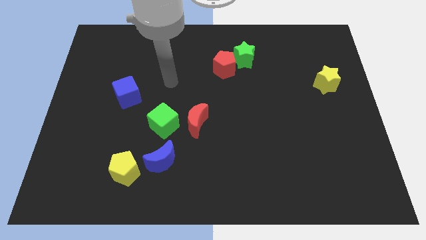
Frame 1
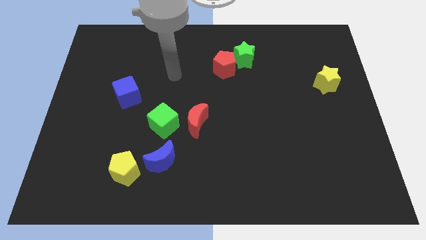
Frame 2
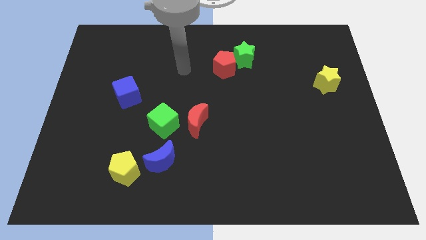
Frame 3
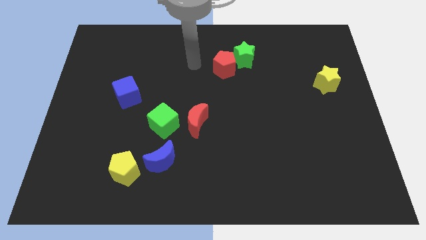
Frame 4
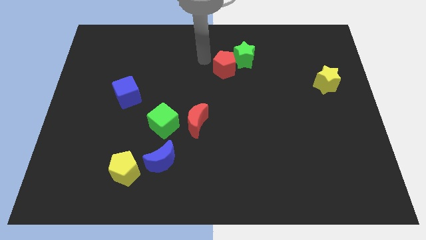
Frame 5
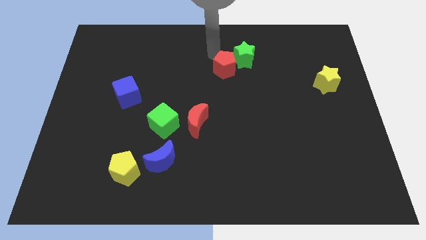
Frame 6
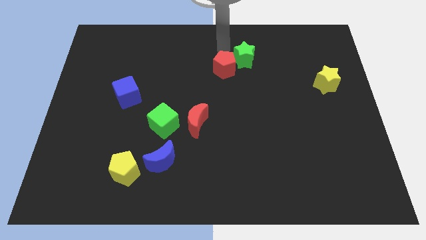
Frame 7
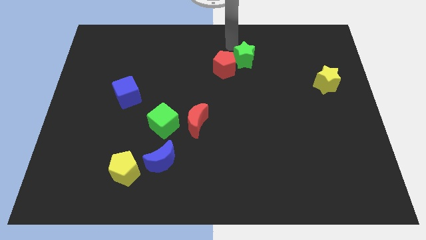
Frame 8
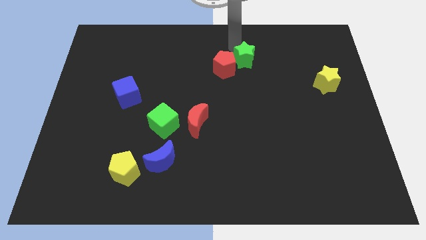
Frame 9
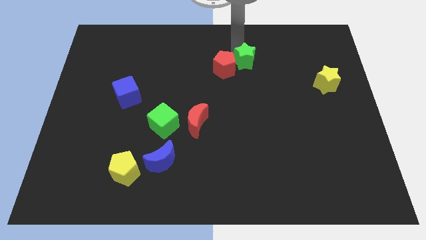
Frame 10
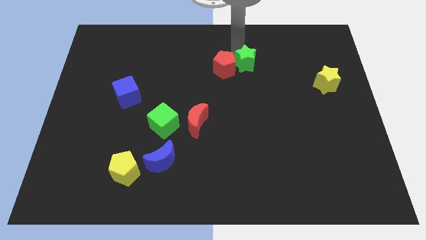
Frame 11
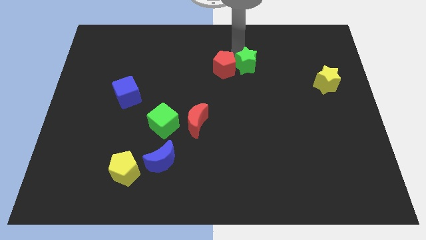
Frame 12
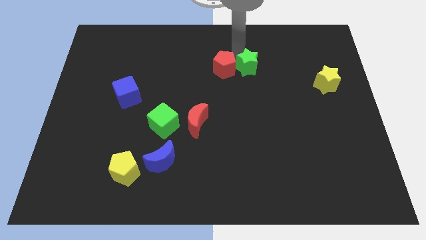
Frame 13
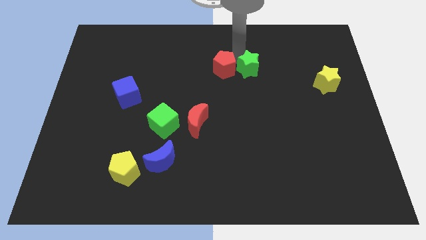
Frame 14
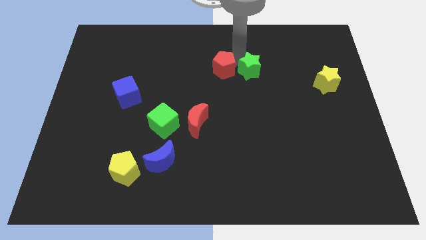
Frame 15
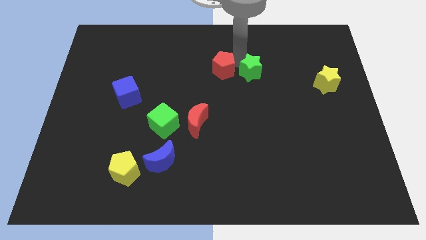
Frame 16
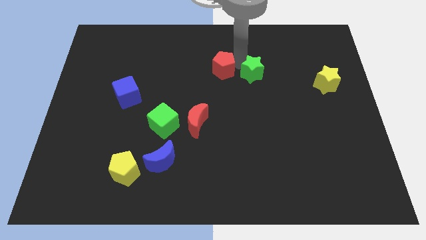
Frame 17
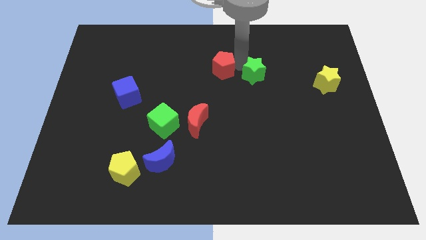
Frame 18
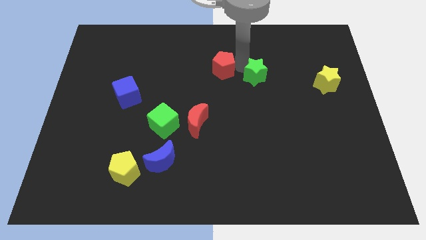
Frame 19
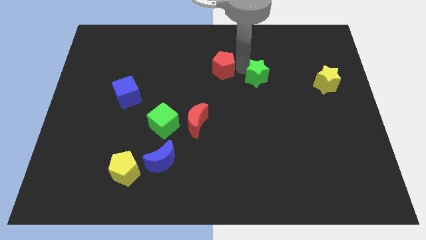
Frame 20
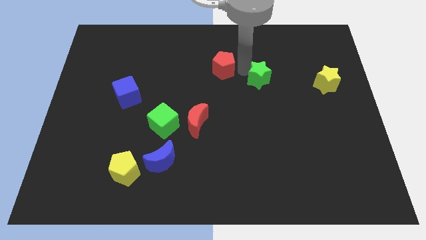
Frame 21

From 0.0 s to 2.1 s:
push the green star diagonally downwards and to the right slightly

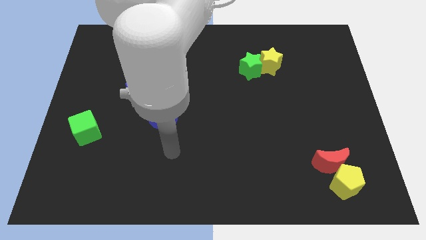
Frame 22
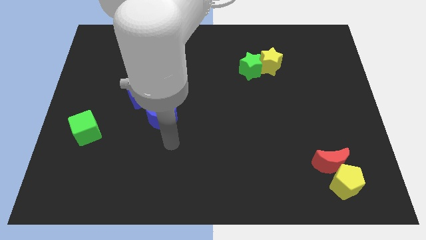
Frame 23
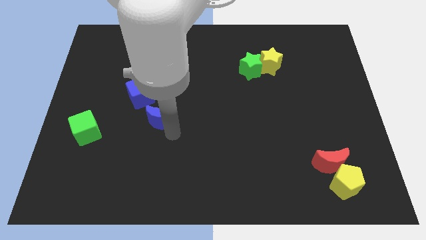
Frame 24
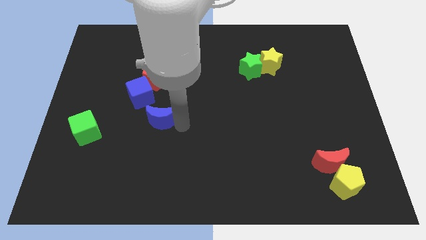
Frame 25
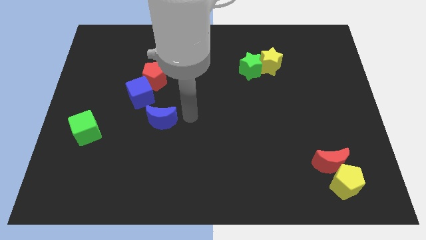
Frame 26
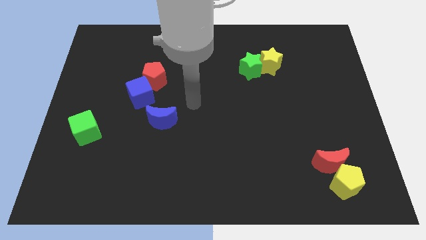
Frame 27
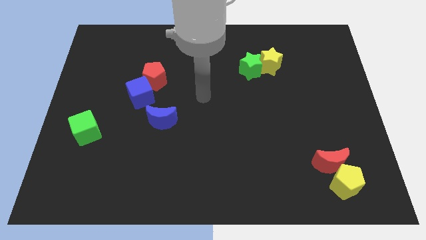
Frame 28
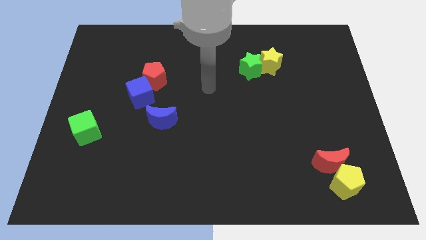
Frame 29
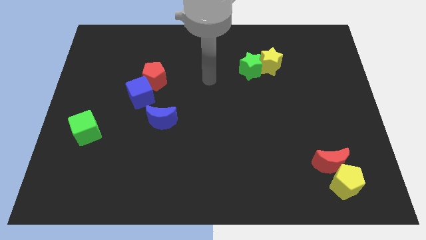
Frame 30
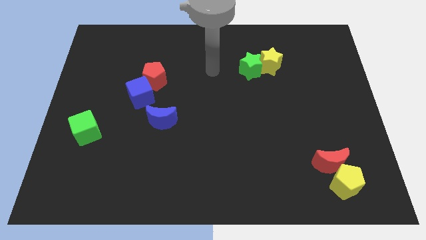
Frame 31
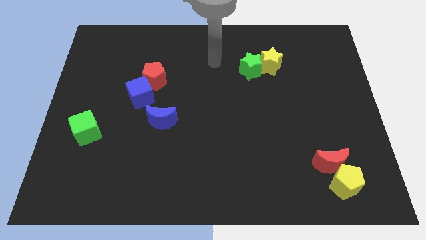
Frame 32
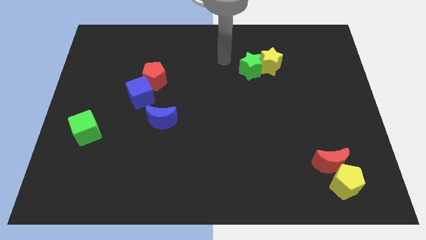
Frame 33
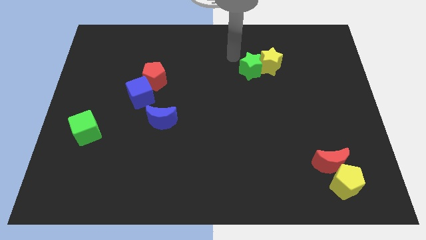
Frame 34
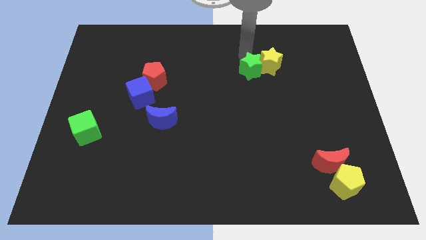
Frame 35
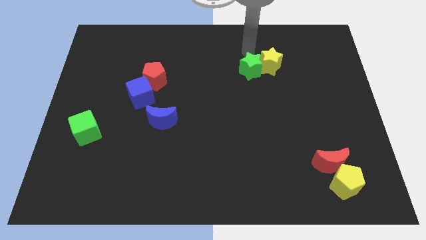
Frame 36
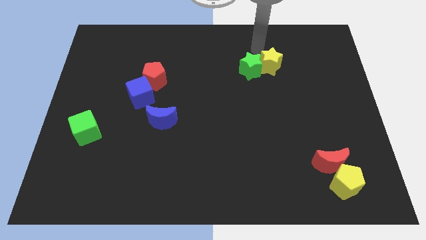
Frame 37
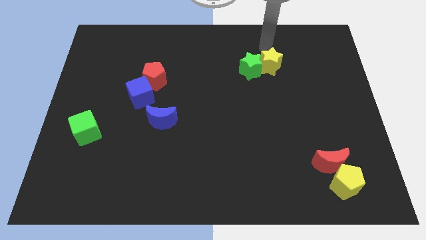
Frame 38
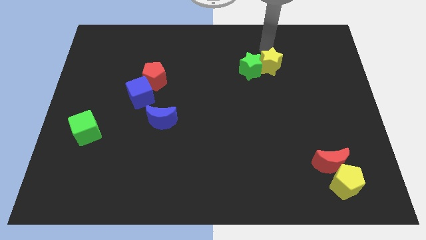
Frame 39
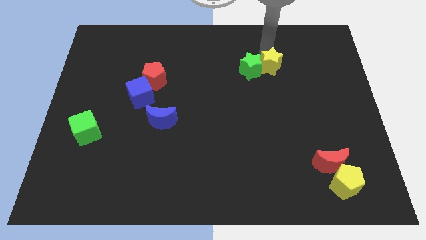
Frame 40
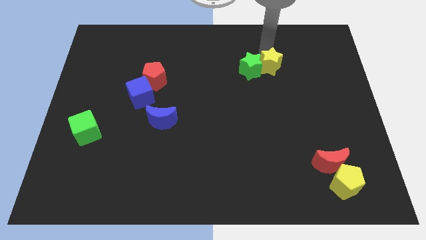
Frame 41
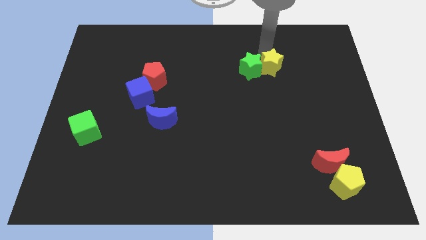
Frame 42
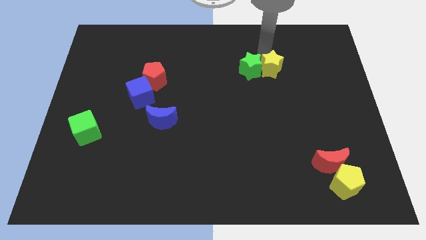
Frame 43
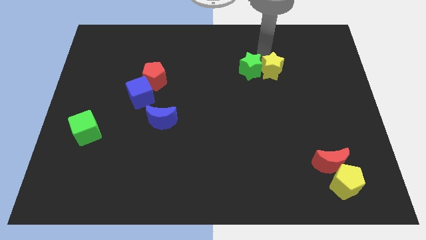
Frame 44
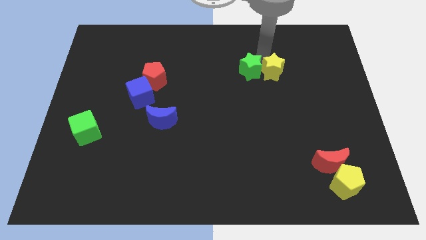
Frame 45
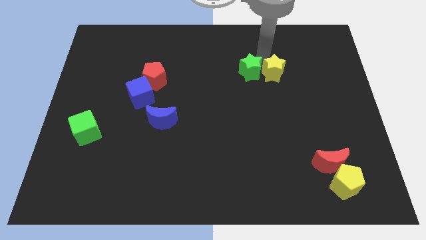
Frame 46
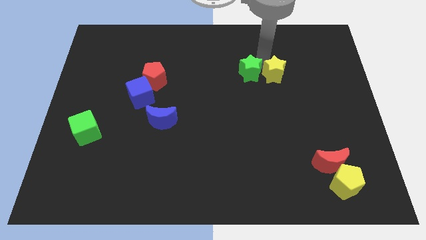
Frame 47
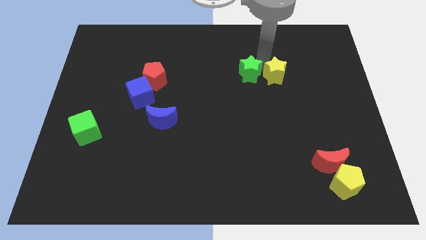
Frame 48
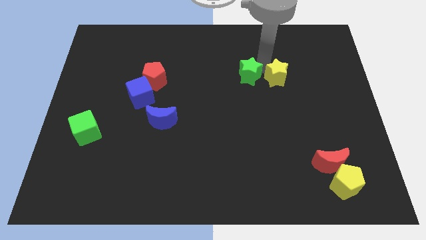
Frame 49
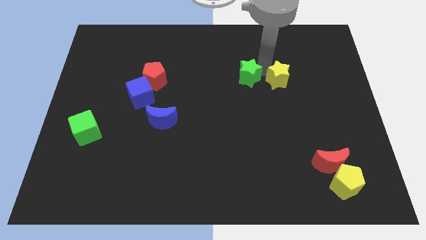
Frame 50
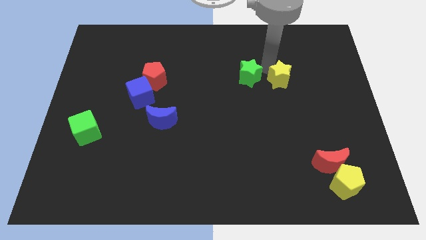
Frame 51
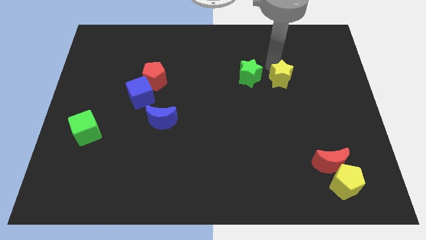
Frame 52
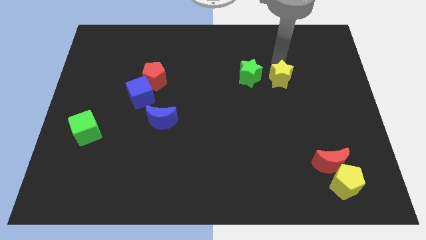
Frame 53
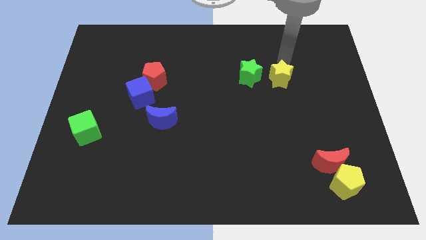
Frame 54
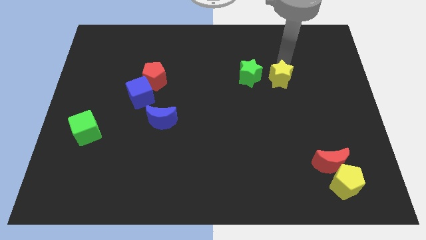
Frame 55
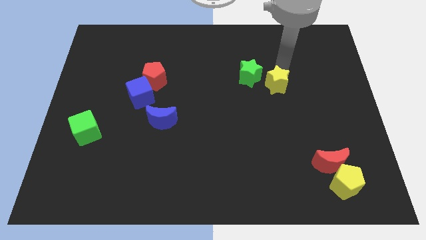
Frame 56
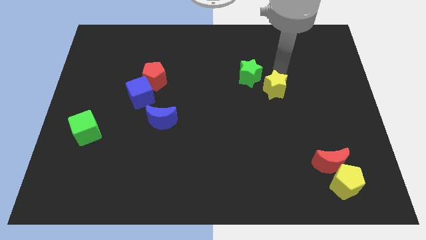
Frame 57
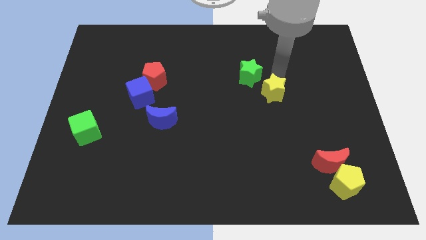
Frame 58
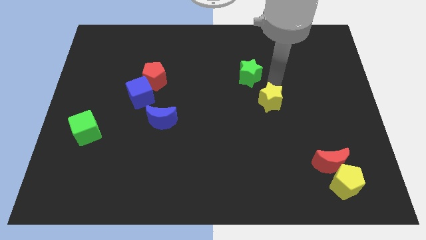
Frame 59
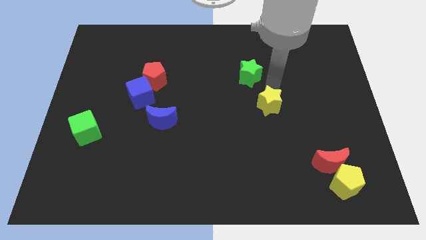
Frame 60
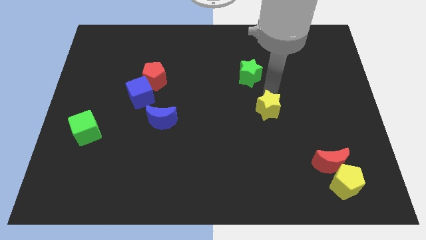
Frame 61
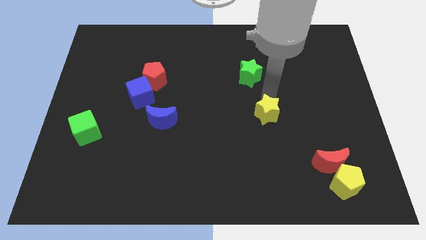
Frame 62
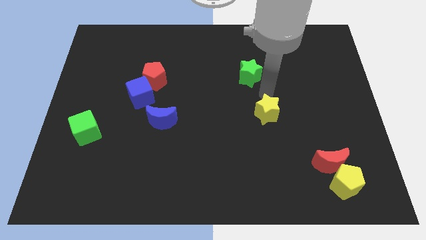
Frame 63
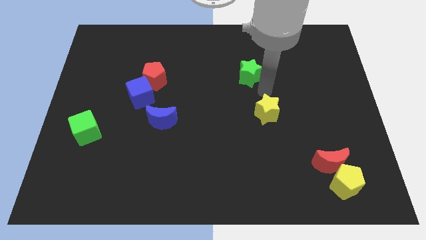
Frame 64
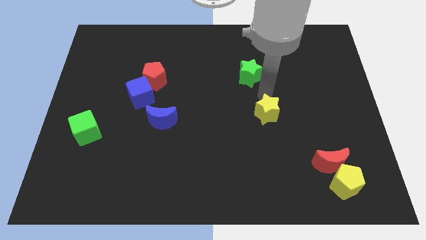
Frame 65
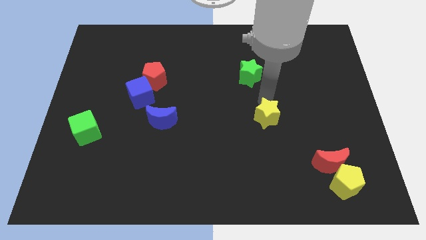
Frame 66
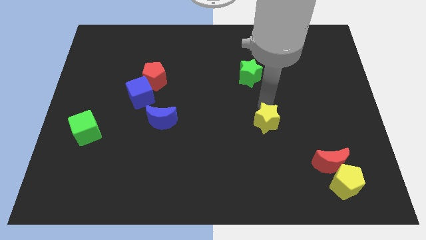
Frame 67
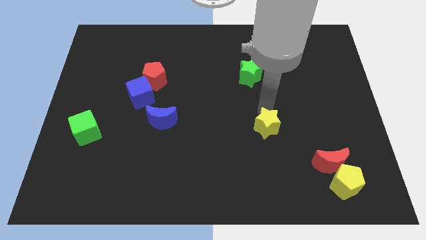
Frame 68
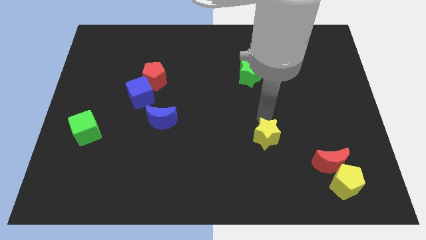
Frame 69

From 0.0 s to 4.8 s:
slide the yellow star down

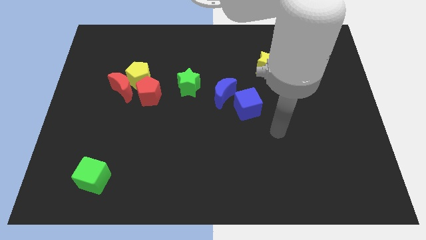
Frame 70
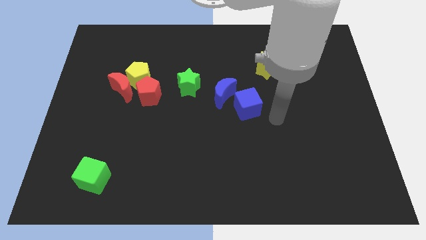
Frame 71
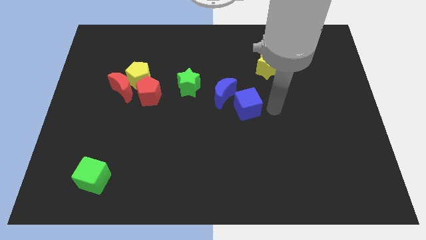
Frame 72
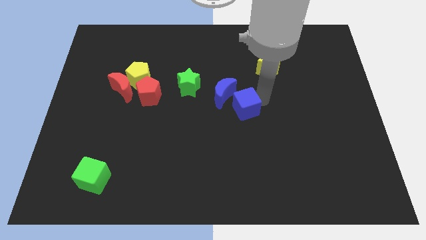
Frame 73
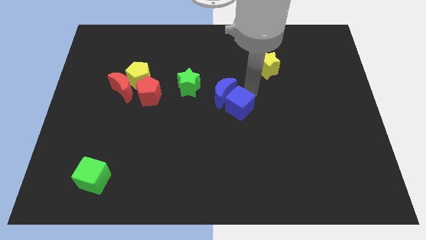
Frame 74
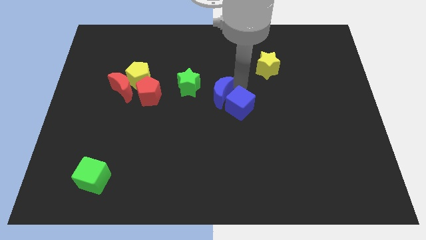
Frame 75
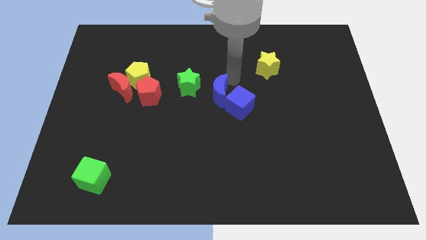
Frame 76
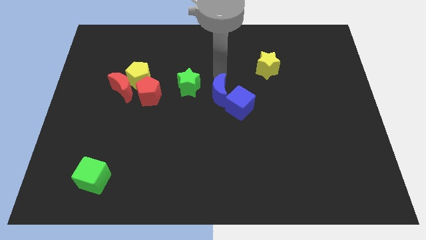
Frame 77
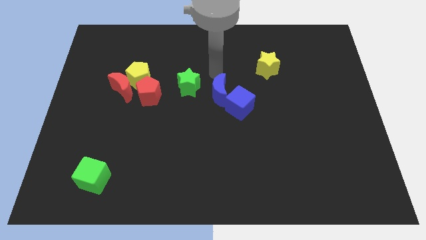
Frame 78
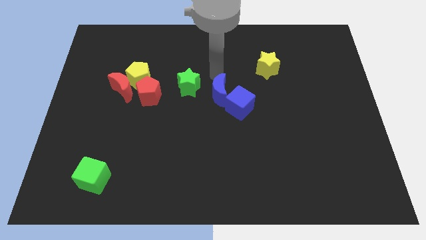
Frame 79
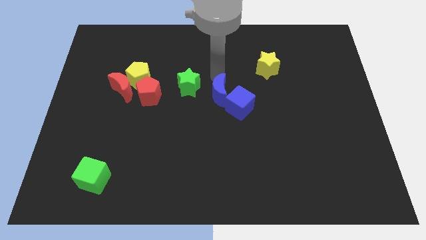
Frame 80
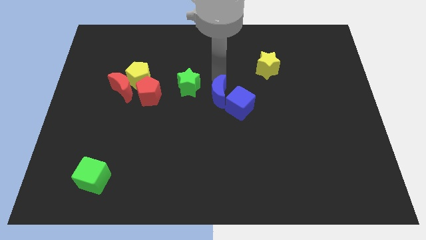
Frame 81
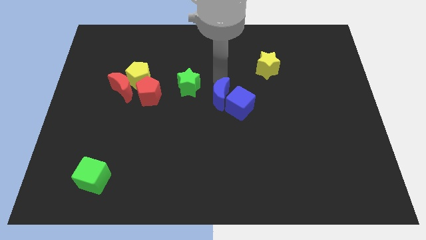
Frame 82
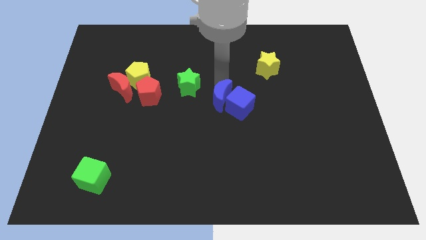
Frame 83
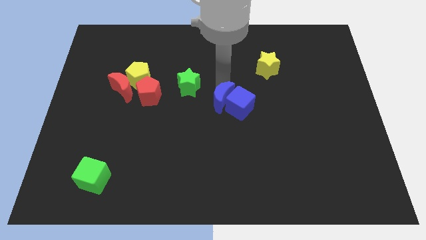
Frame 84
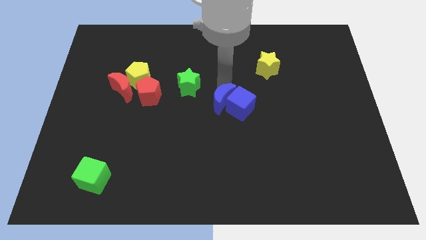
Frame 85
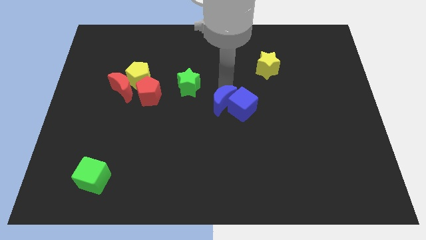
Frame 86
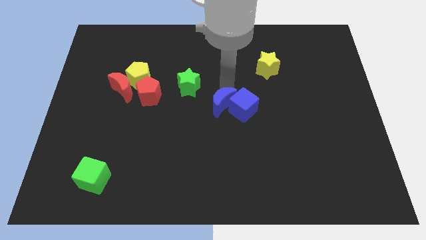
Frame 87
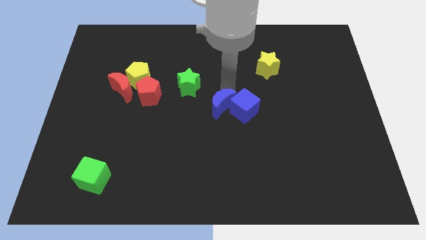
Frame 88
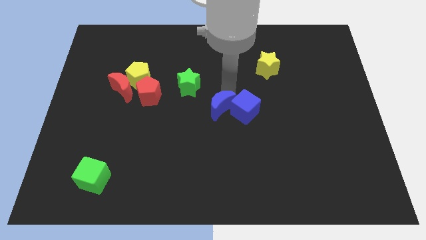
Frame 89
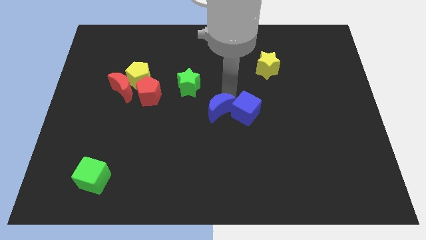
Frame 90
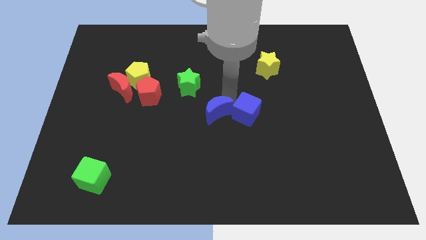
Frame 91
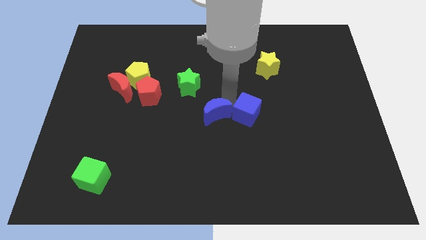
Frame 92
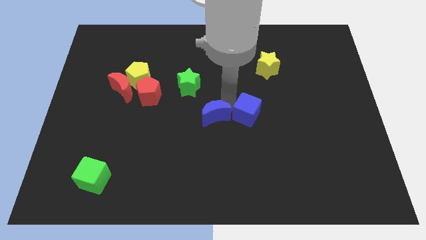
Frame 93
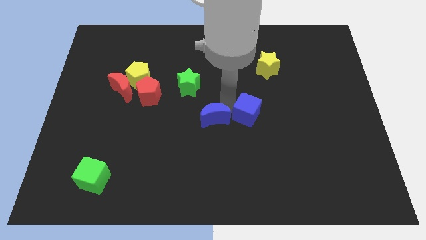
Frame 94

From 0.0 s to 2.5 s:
push the blue moon somewhat downwards
